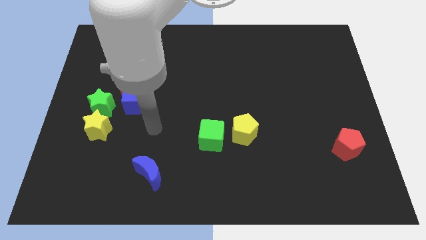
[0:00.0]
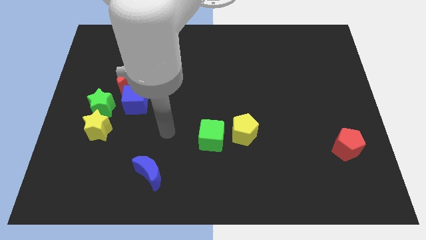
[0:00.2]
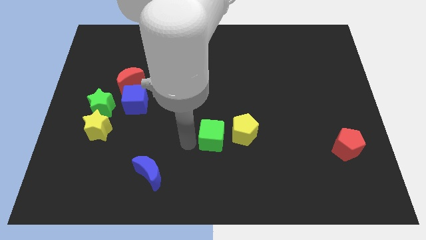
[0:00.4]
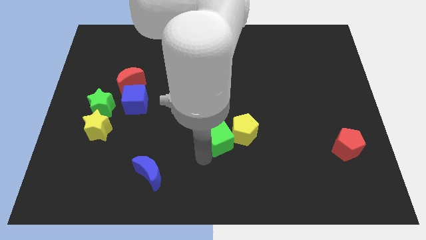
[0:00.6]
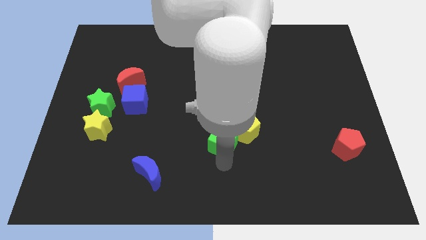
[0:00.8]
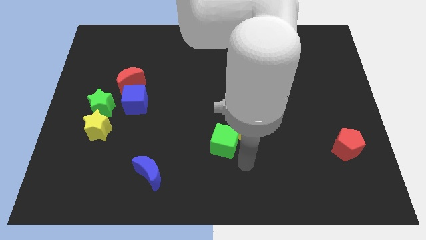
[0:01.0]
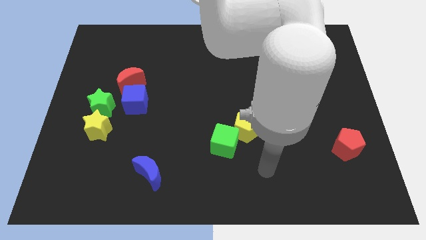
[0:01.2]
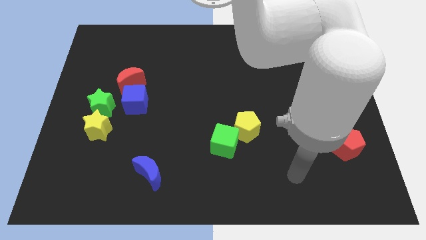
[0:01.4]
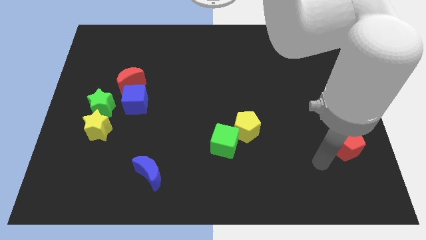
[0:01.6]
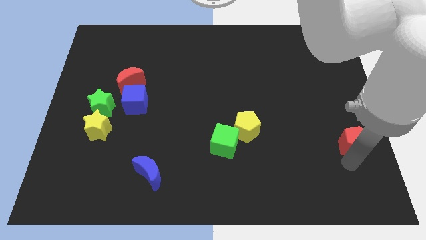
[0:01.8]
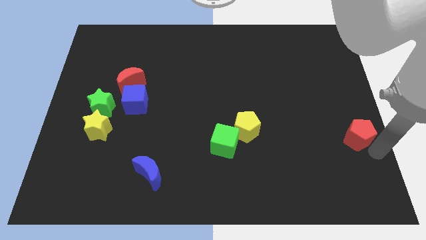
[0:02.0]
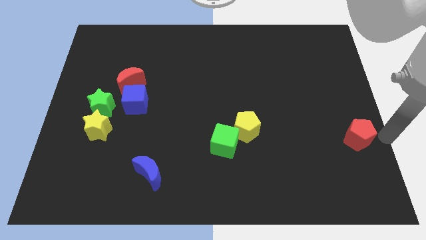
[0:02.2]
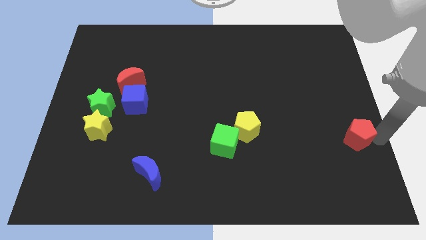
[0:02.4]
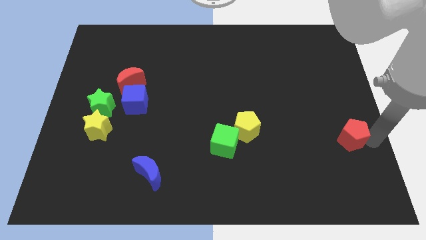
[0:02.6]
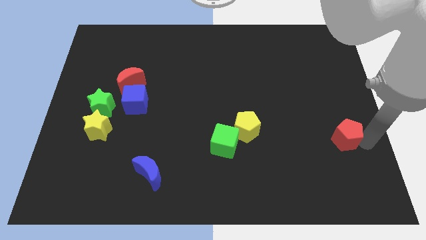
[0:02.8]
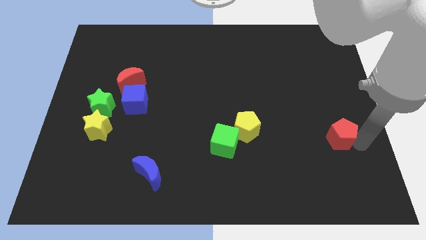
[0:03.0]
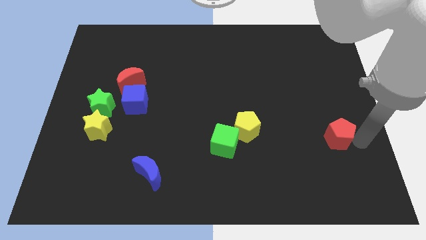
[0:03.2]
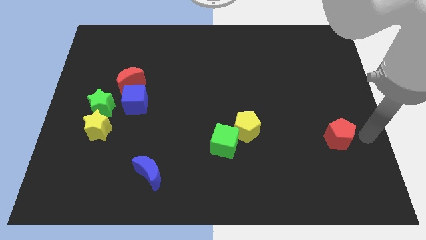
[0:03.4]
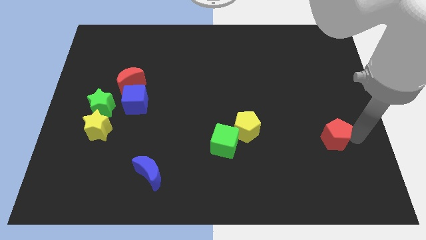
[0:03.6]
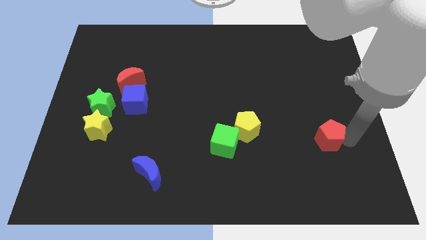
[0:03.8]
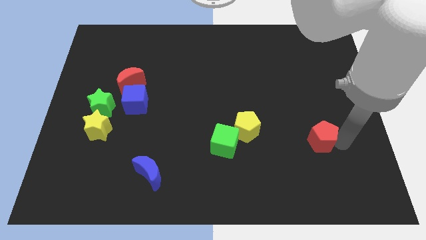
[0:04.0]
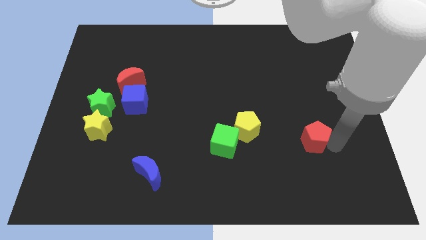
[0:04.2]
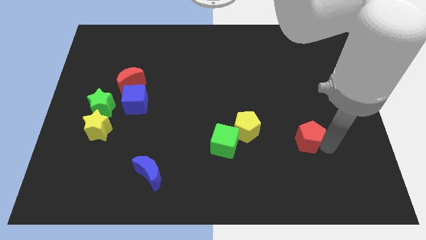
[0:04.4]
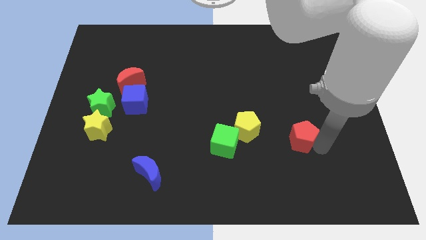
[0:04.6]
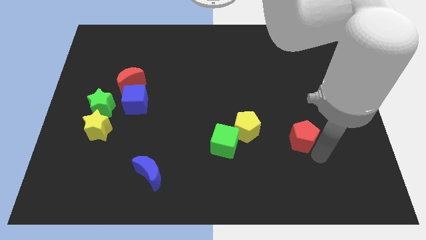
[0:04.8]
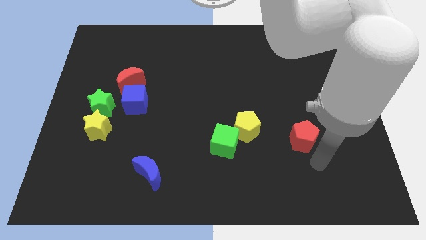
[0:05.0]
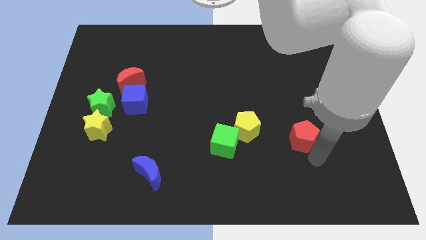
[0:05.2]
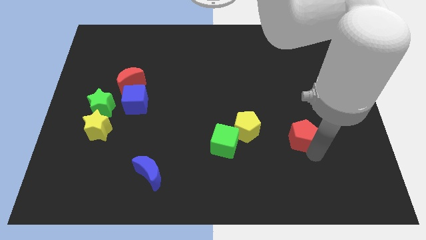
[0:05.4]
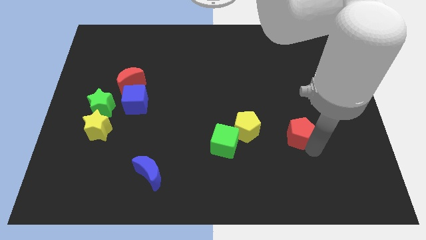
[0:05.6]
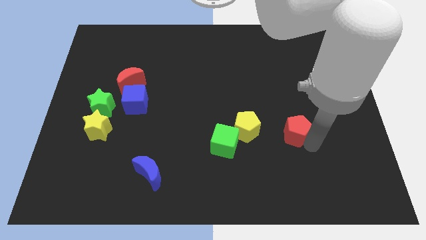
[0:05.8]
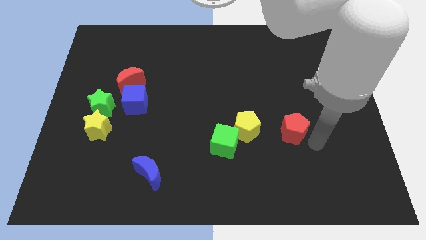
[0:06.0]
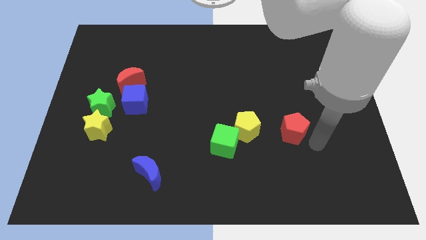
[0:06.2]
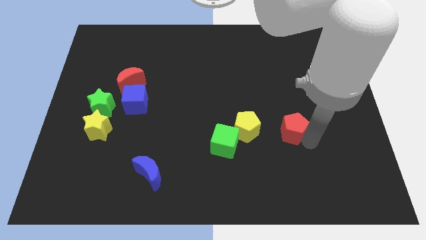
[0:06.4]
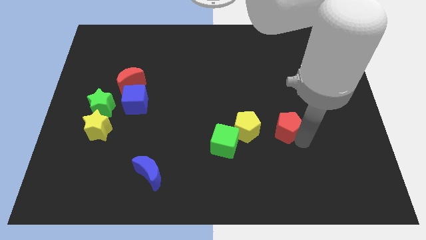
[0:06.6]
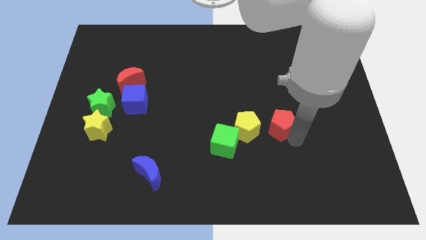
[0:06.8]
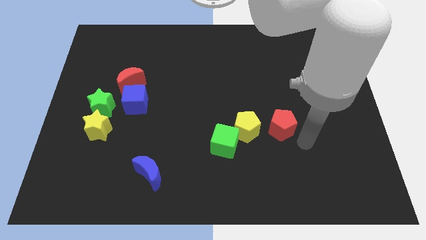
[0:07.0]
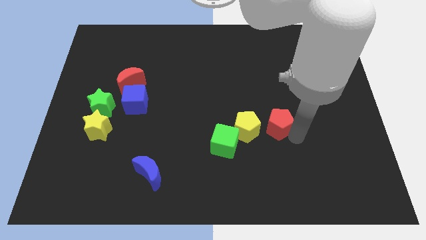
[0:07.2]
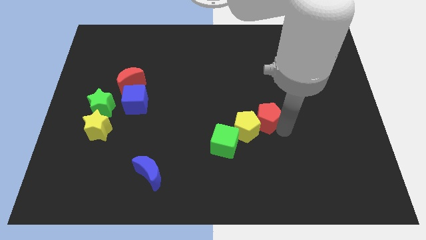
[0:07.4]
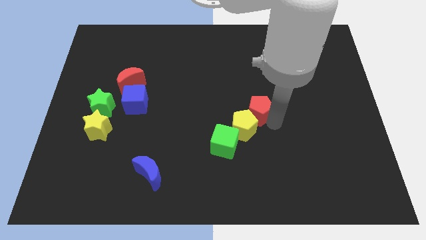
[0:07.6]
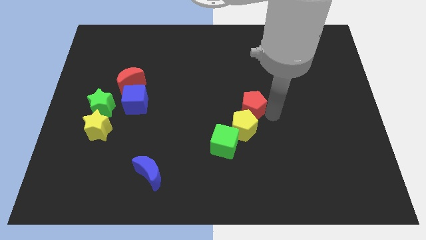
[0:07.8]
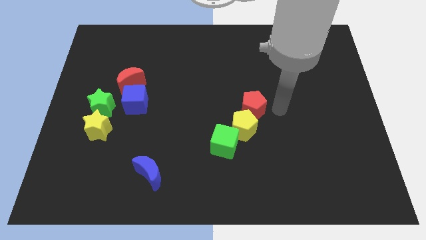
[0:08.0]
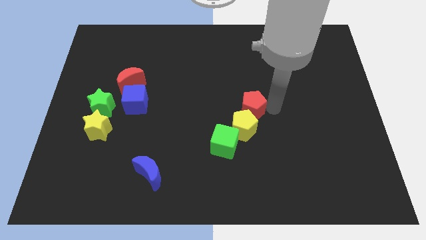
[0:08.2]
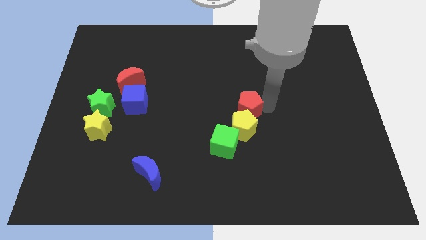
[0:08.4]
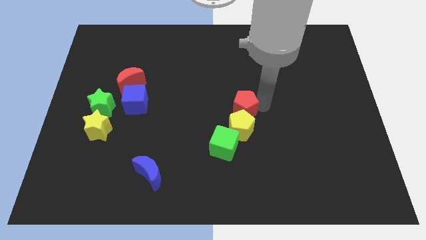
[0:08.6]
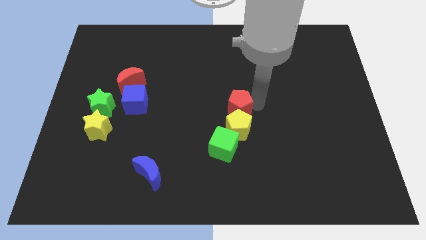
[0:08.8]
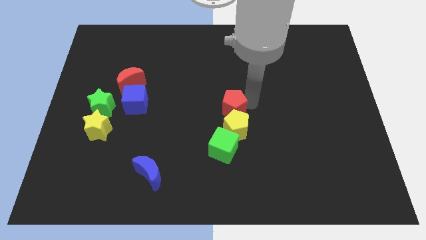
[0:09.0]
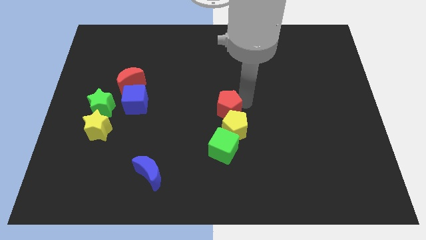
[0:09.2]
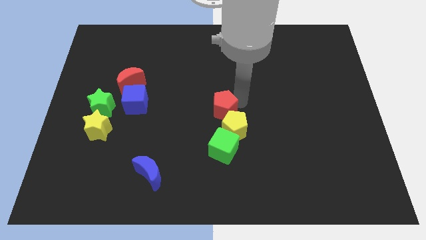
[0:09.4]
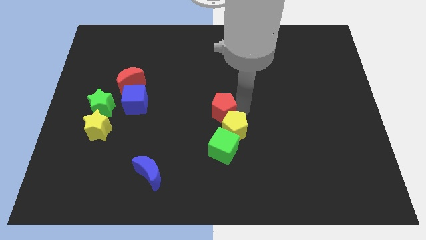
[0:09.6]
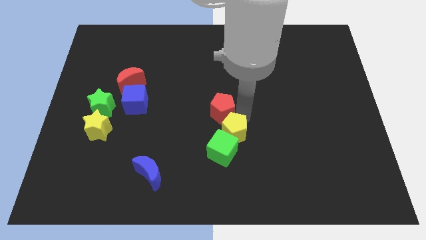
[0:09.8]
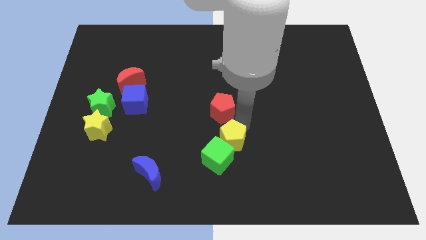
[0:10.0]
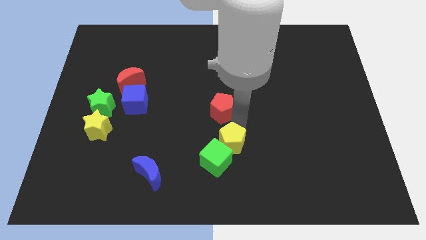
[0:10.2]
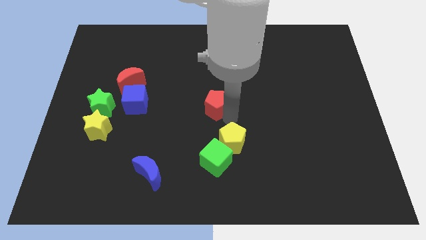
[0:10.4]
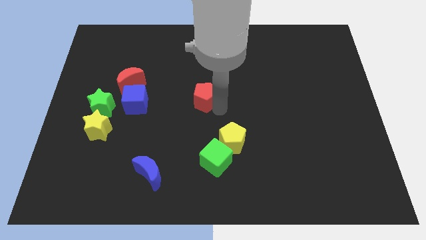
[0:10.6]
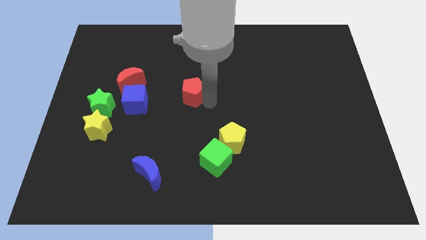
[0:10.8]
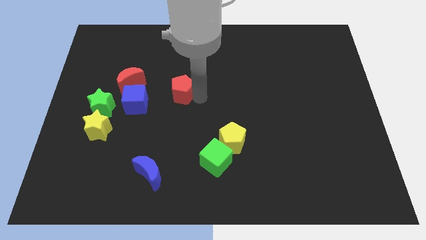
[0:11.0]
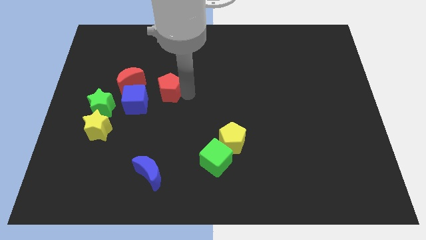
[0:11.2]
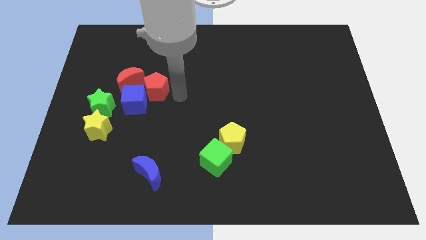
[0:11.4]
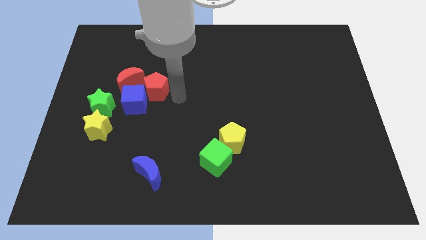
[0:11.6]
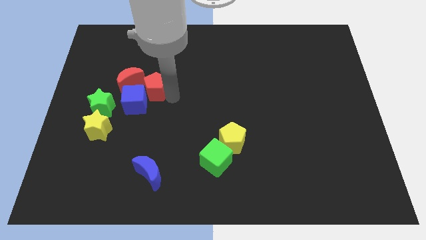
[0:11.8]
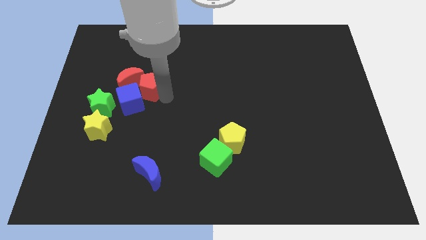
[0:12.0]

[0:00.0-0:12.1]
push the red pentagon close to the red moon
